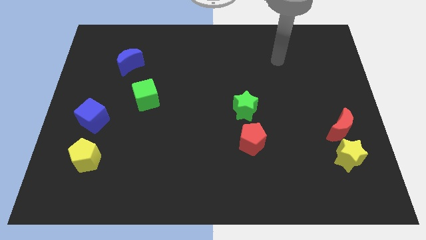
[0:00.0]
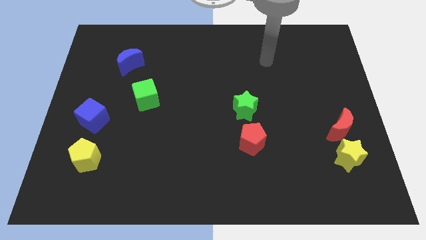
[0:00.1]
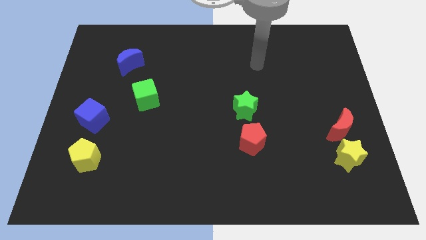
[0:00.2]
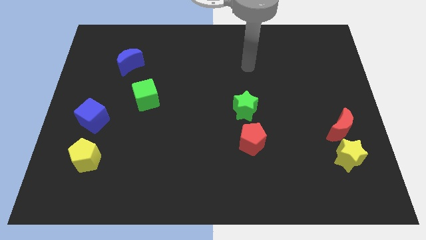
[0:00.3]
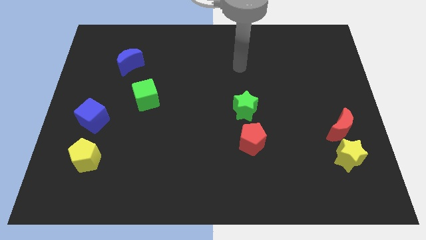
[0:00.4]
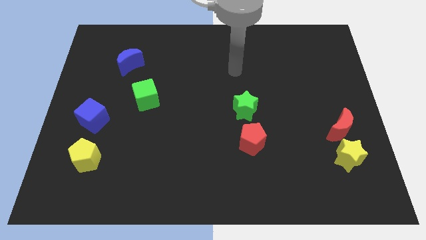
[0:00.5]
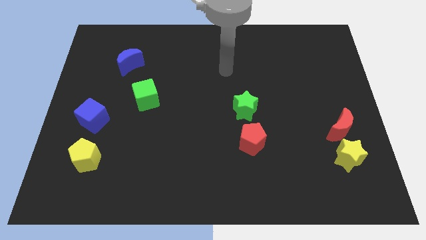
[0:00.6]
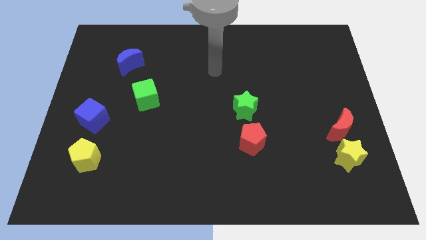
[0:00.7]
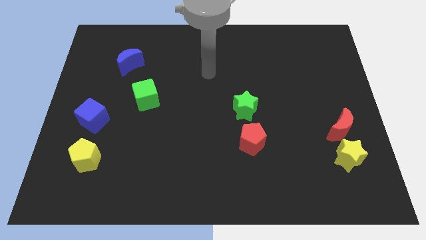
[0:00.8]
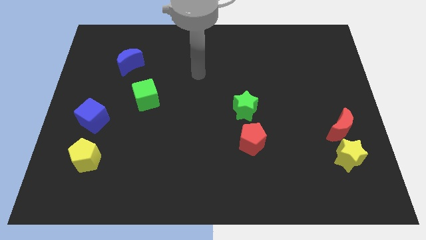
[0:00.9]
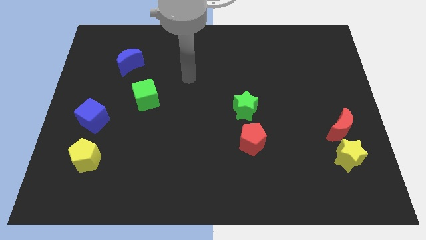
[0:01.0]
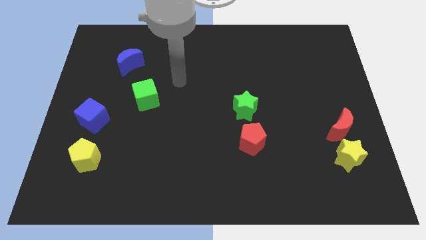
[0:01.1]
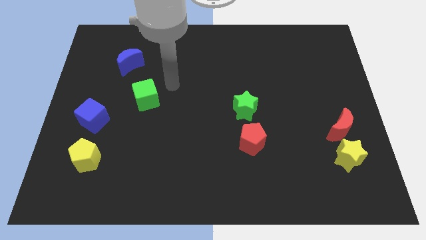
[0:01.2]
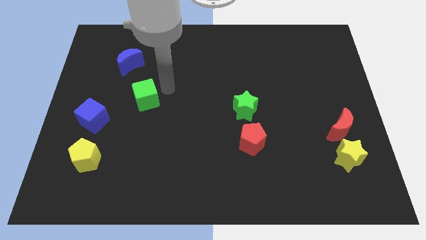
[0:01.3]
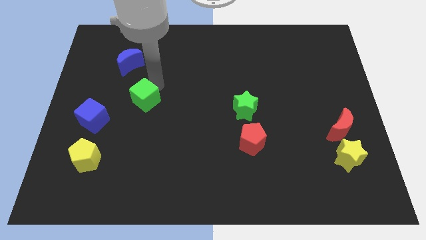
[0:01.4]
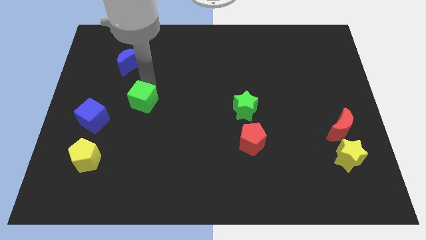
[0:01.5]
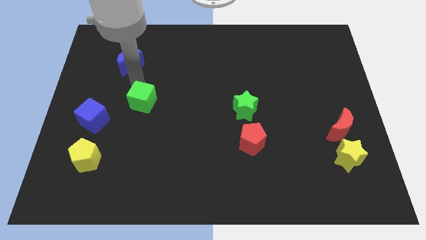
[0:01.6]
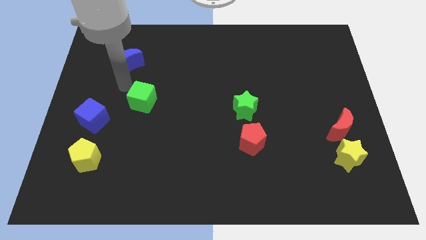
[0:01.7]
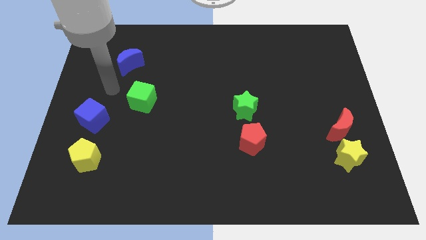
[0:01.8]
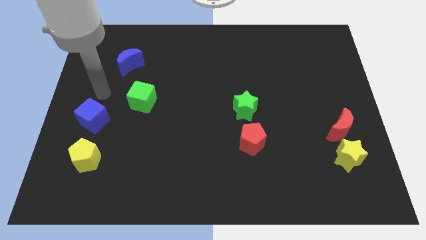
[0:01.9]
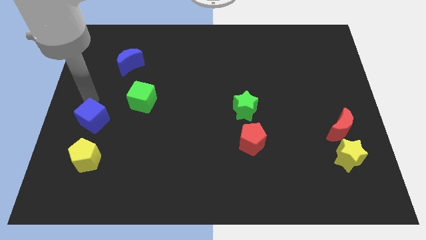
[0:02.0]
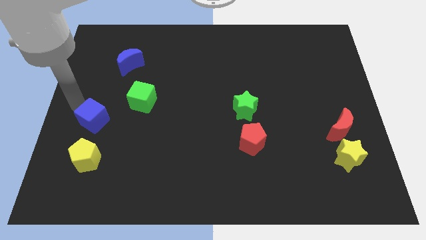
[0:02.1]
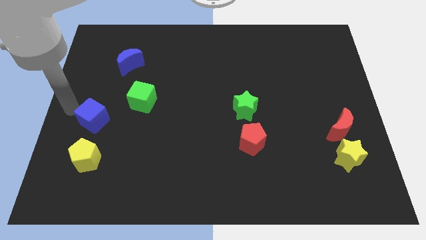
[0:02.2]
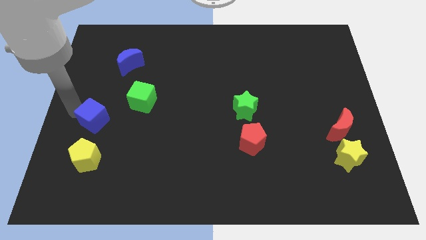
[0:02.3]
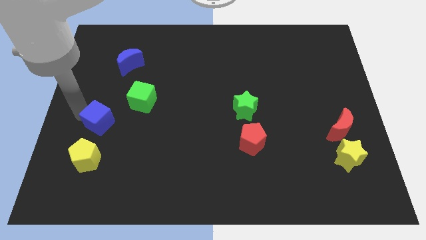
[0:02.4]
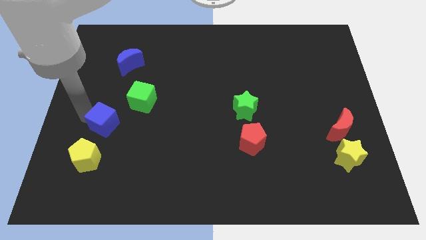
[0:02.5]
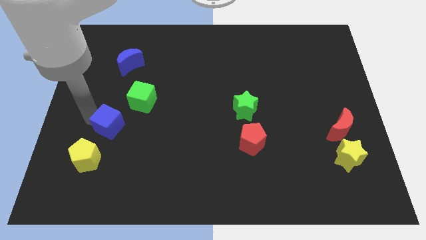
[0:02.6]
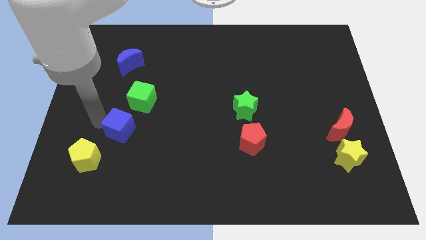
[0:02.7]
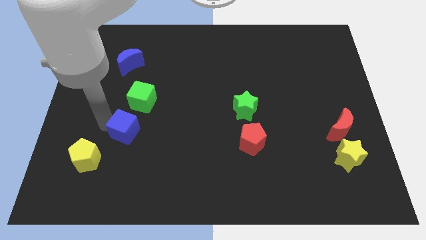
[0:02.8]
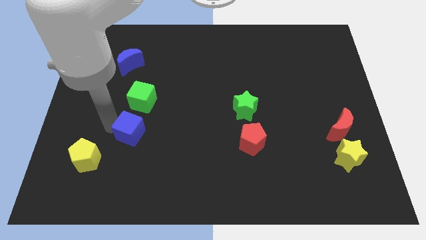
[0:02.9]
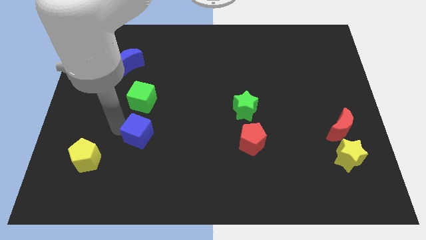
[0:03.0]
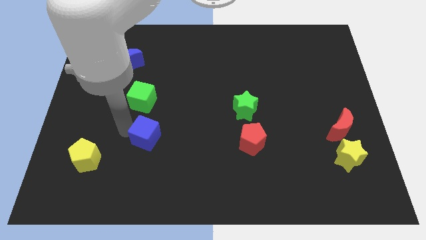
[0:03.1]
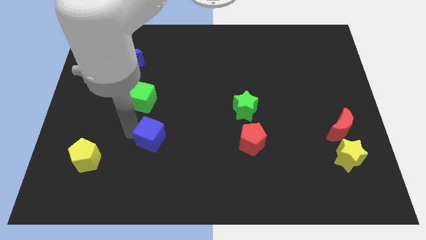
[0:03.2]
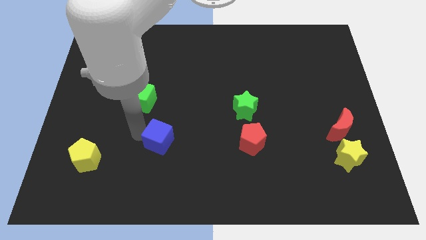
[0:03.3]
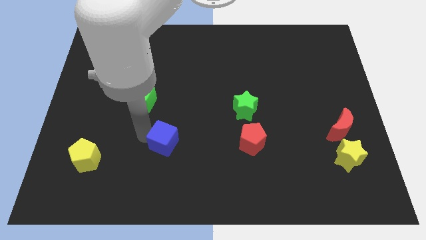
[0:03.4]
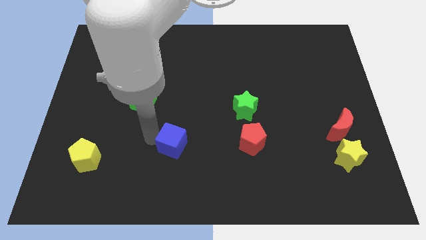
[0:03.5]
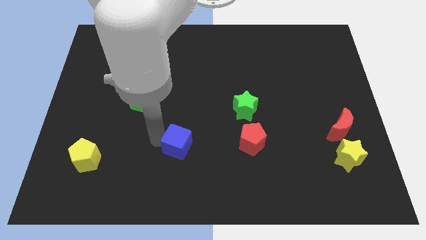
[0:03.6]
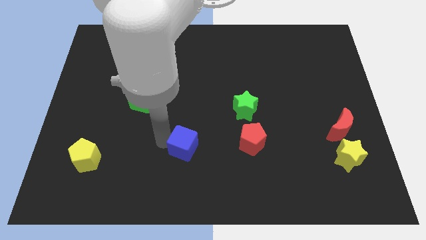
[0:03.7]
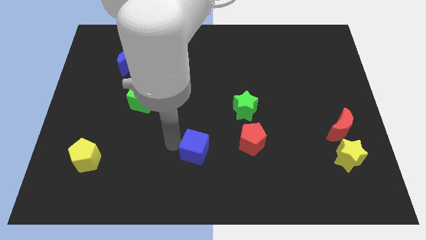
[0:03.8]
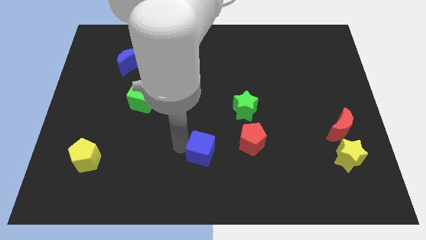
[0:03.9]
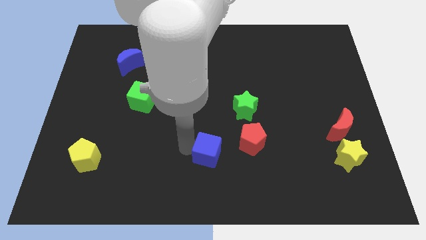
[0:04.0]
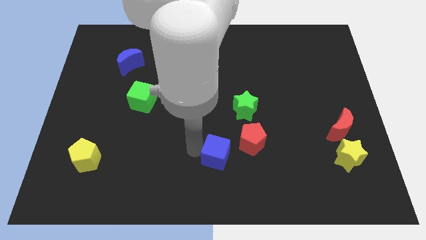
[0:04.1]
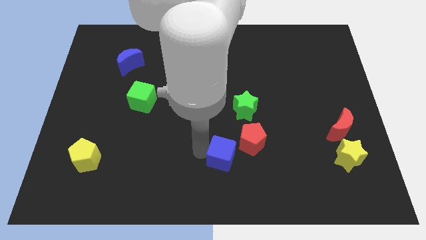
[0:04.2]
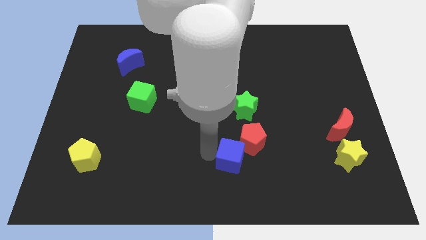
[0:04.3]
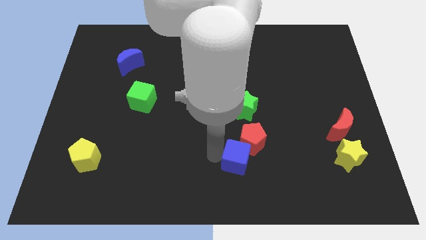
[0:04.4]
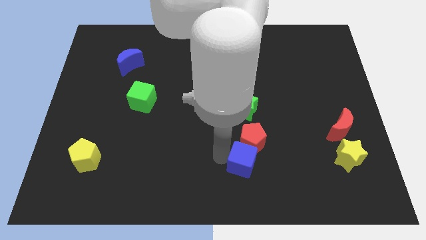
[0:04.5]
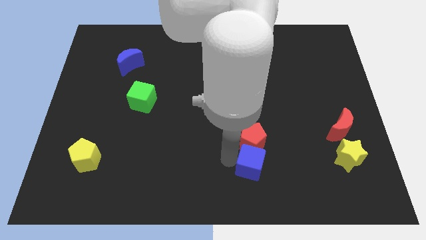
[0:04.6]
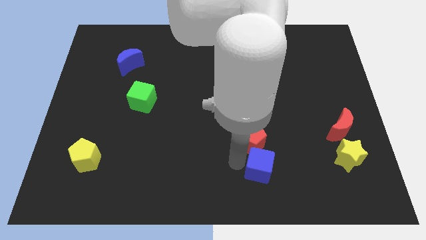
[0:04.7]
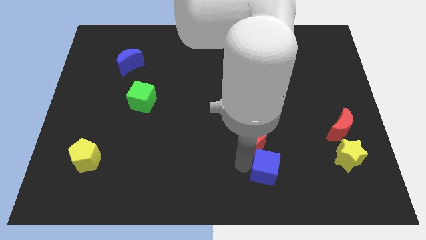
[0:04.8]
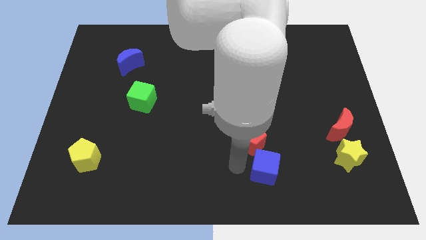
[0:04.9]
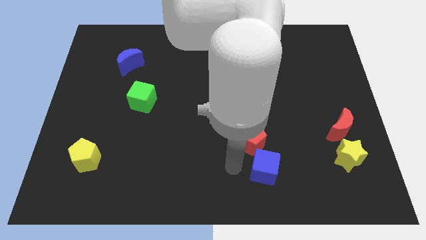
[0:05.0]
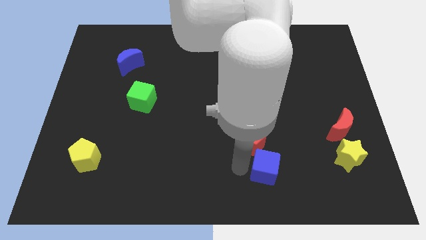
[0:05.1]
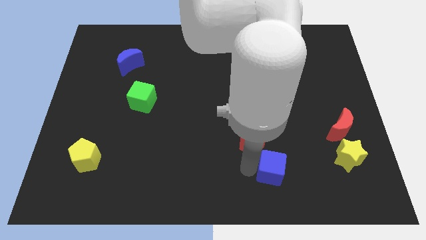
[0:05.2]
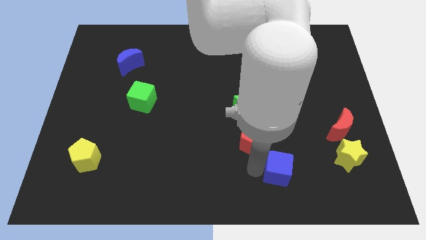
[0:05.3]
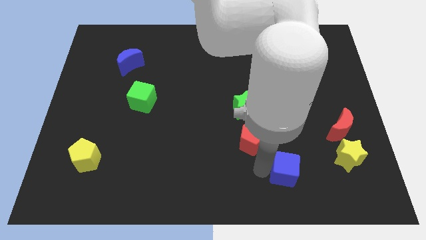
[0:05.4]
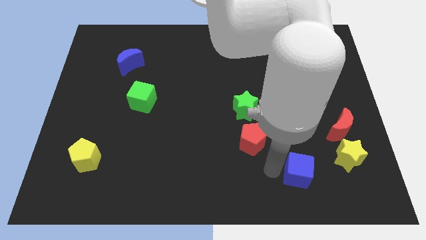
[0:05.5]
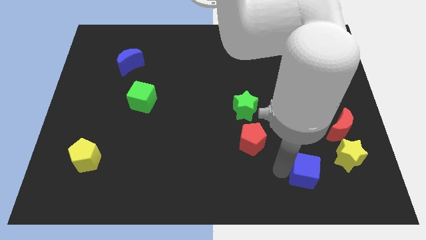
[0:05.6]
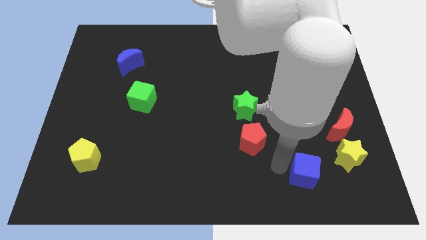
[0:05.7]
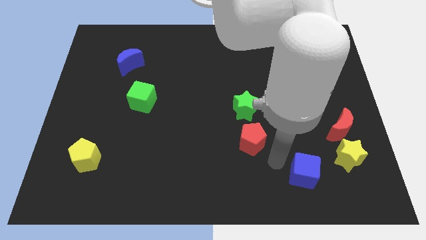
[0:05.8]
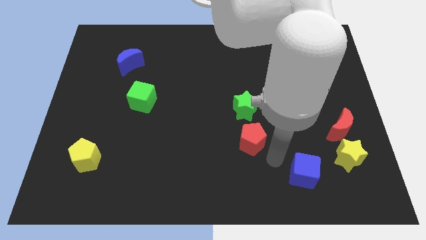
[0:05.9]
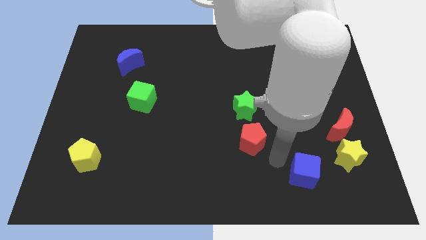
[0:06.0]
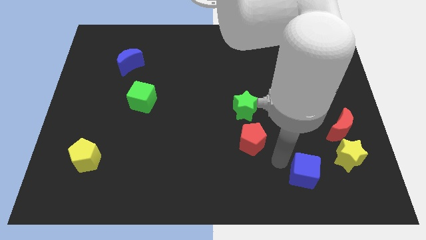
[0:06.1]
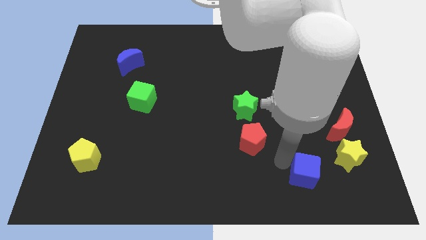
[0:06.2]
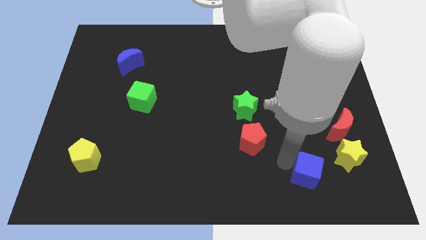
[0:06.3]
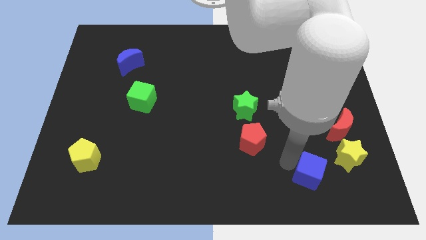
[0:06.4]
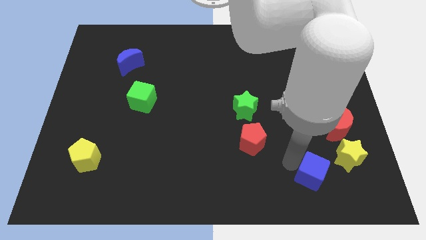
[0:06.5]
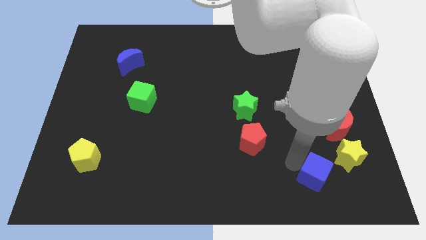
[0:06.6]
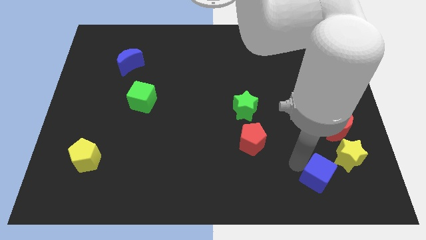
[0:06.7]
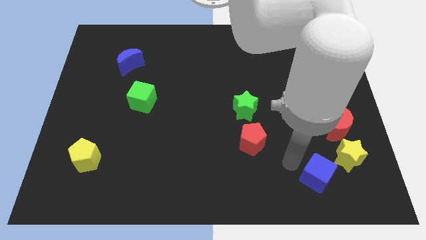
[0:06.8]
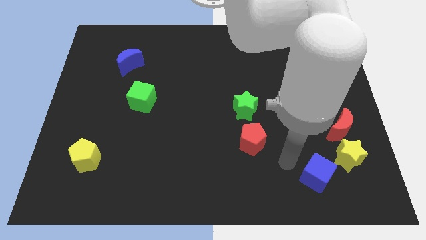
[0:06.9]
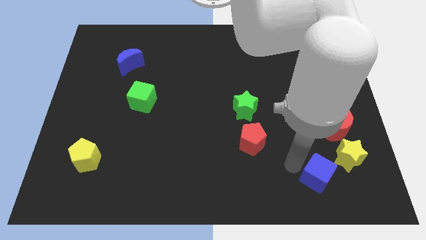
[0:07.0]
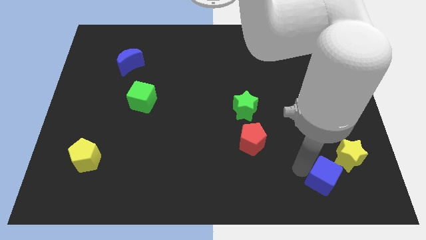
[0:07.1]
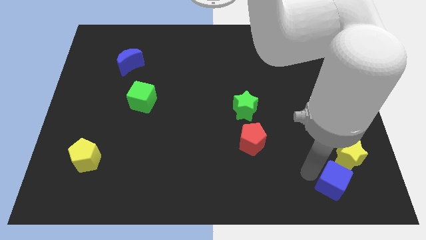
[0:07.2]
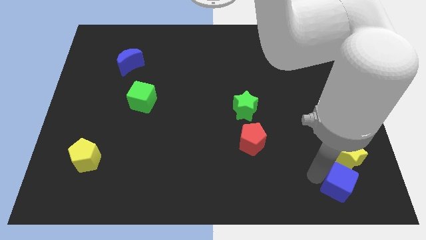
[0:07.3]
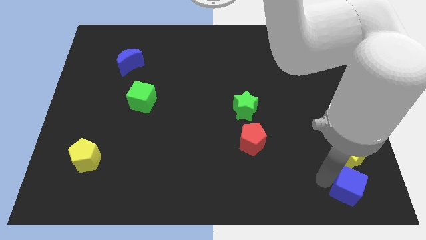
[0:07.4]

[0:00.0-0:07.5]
slide the blue cube to the bottom right corner
